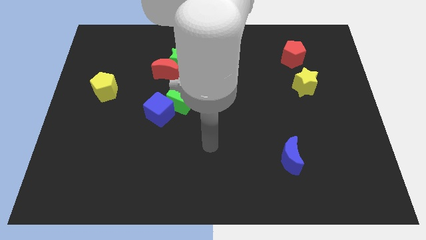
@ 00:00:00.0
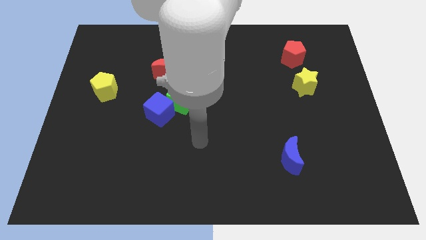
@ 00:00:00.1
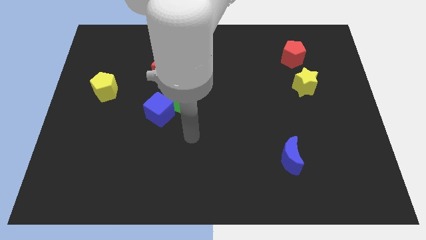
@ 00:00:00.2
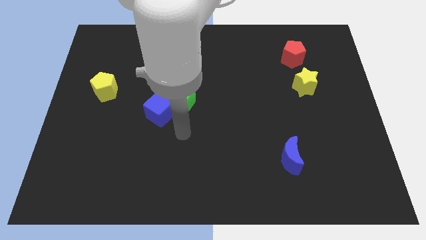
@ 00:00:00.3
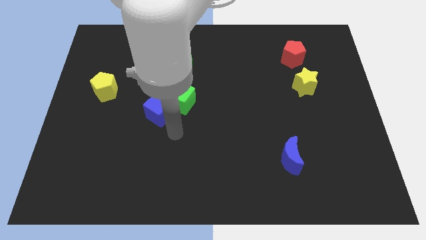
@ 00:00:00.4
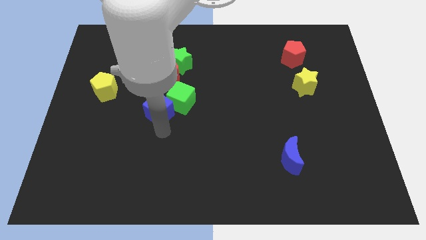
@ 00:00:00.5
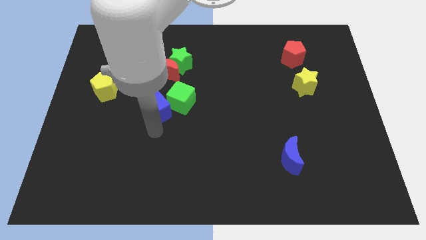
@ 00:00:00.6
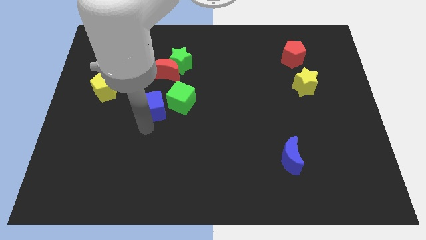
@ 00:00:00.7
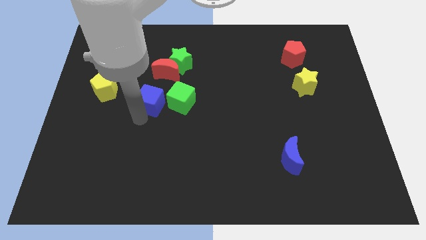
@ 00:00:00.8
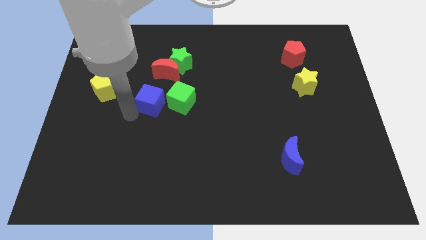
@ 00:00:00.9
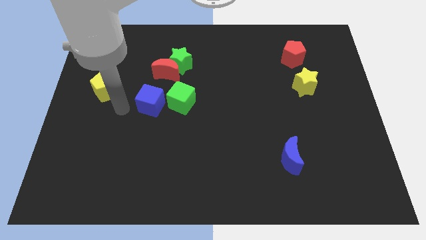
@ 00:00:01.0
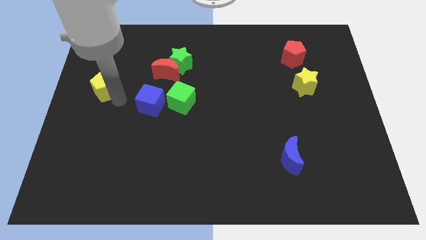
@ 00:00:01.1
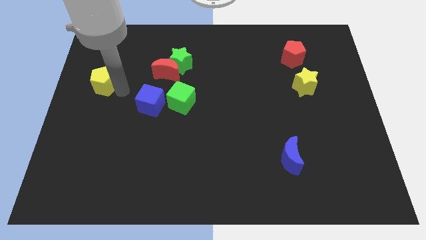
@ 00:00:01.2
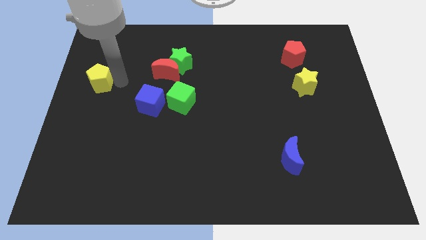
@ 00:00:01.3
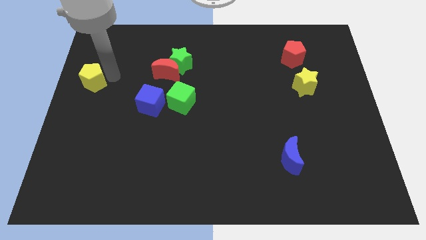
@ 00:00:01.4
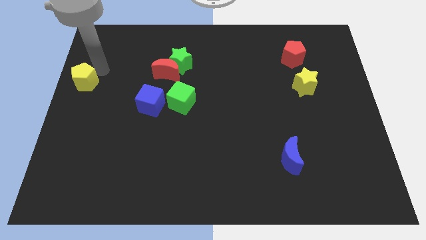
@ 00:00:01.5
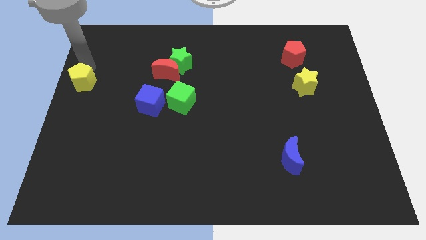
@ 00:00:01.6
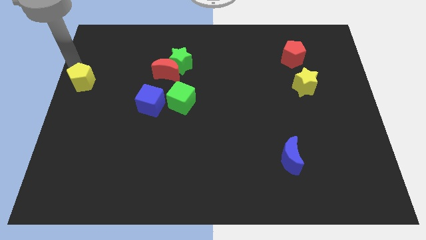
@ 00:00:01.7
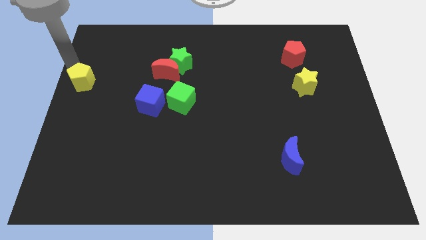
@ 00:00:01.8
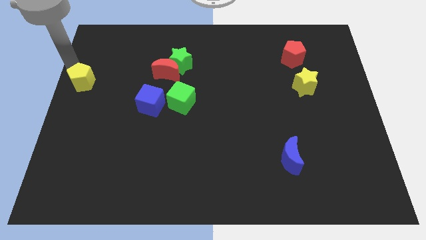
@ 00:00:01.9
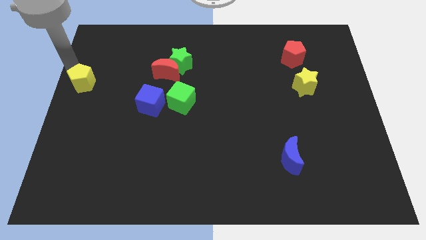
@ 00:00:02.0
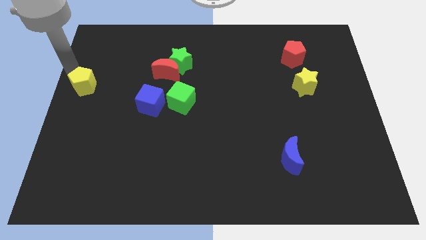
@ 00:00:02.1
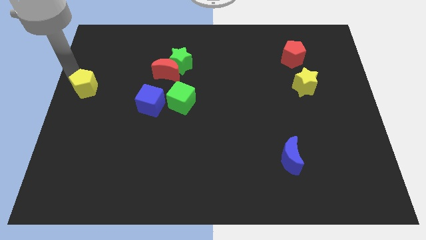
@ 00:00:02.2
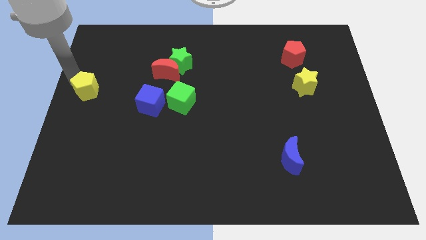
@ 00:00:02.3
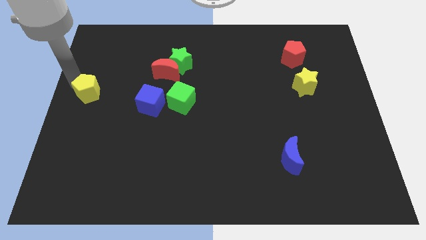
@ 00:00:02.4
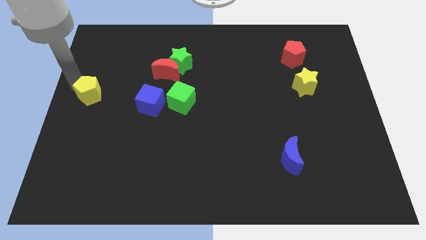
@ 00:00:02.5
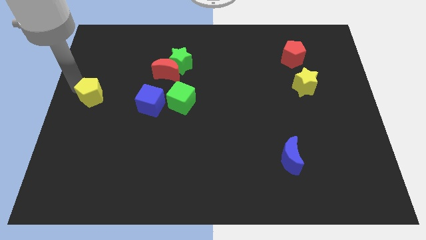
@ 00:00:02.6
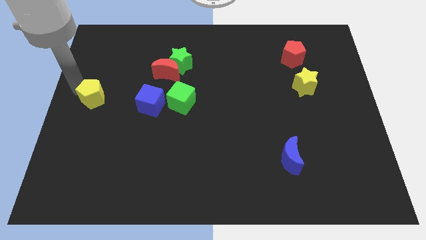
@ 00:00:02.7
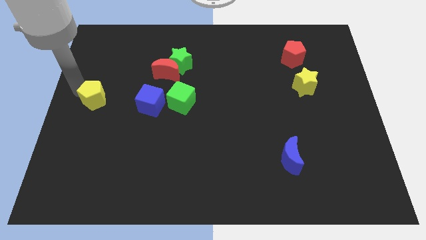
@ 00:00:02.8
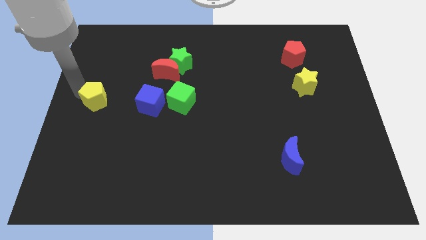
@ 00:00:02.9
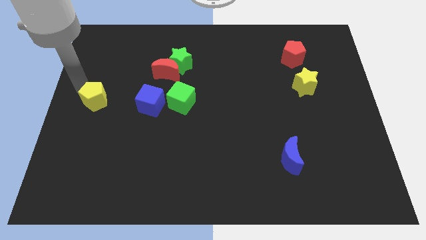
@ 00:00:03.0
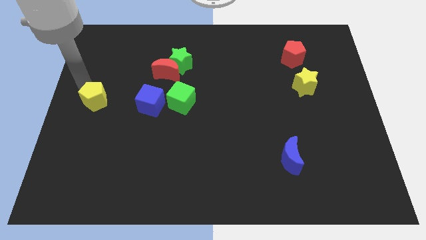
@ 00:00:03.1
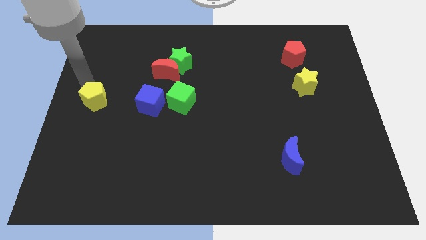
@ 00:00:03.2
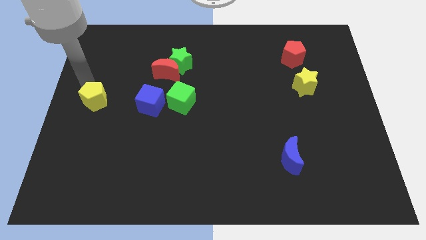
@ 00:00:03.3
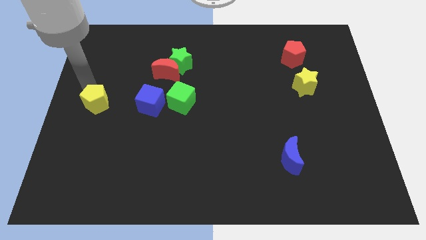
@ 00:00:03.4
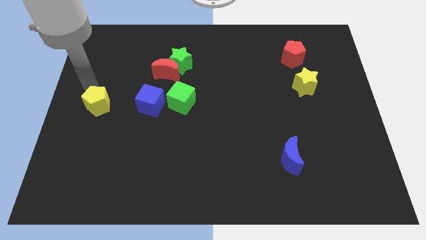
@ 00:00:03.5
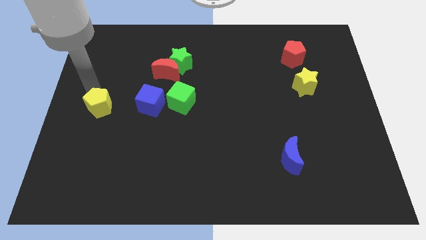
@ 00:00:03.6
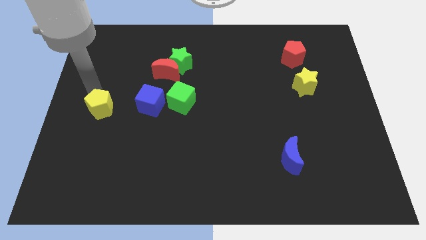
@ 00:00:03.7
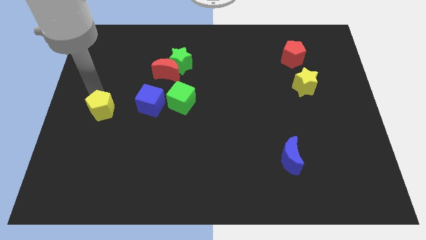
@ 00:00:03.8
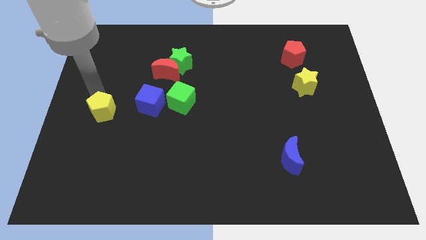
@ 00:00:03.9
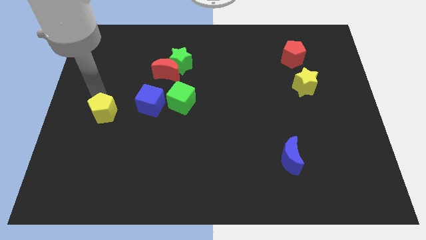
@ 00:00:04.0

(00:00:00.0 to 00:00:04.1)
slide the yellow pentagon somewhat down

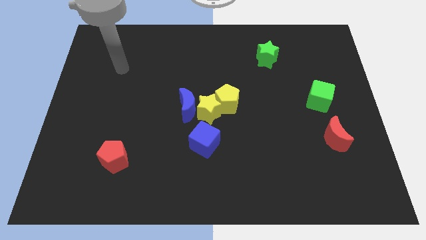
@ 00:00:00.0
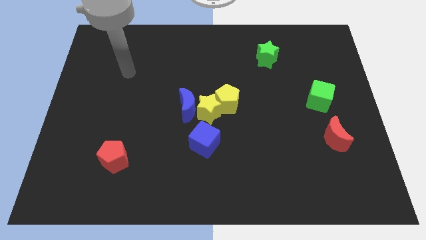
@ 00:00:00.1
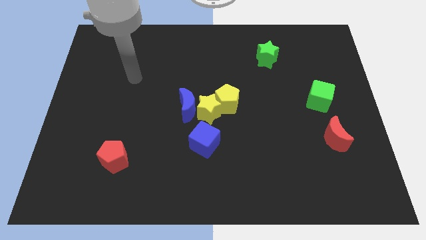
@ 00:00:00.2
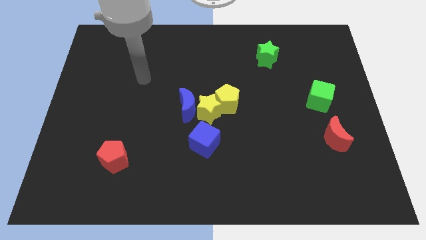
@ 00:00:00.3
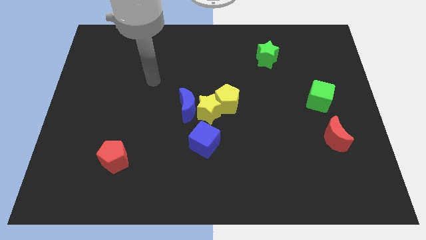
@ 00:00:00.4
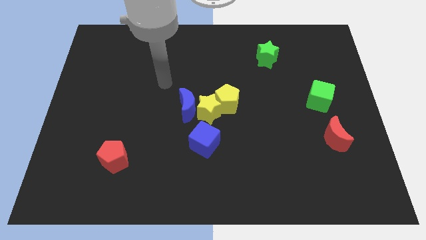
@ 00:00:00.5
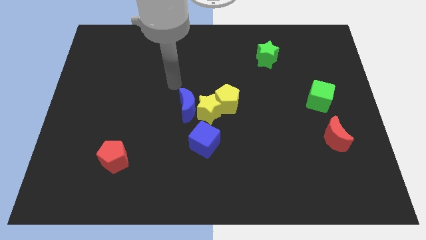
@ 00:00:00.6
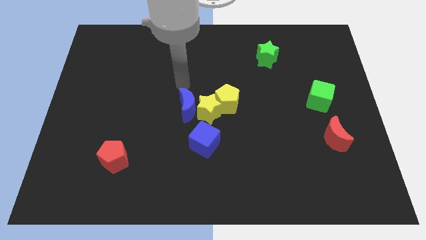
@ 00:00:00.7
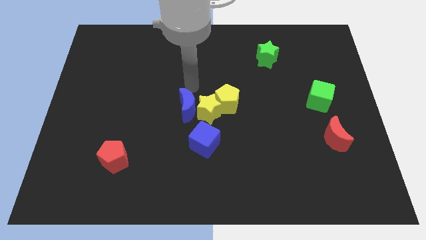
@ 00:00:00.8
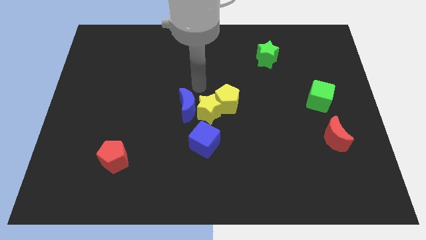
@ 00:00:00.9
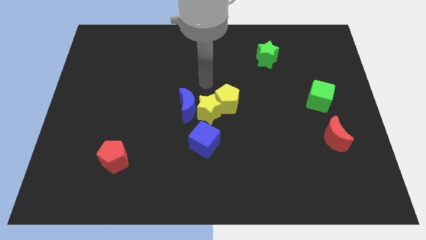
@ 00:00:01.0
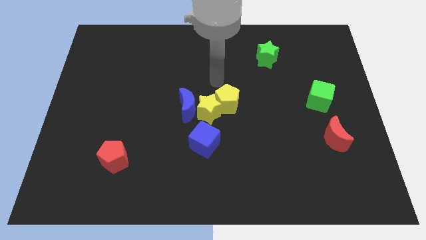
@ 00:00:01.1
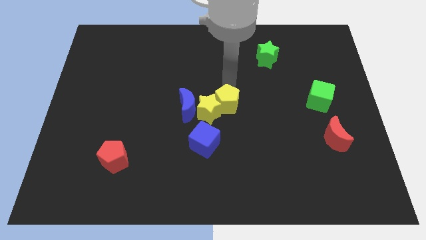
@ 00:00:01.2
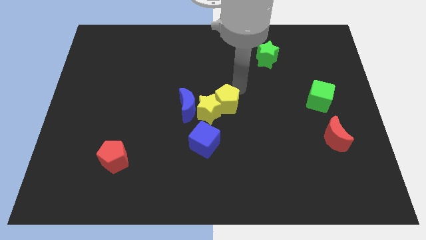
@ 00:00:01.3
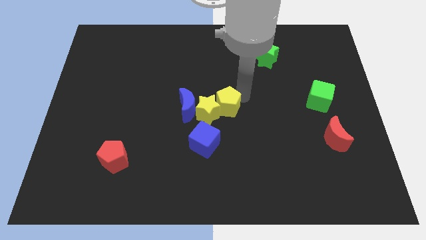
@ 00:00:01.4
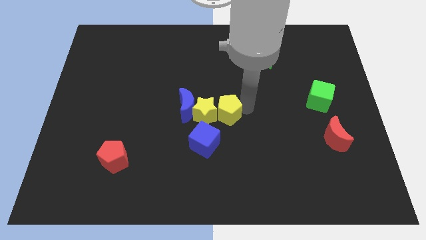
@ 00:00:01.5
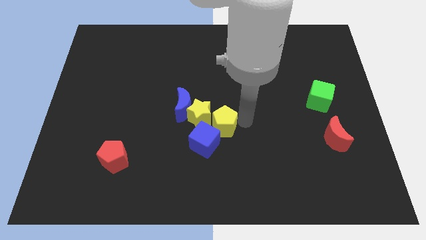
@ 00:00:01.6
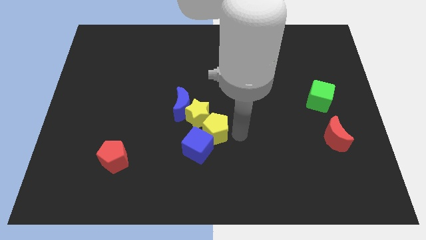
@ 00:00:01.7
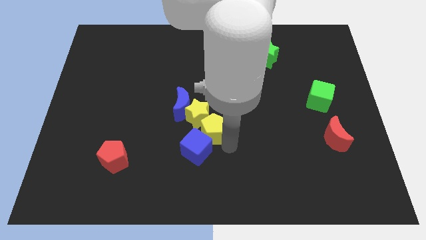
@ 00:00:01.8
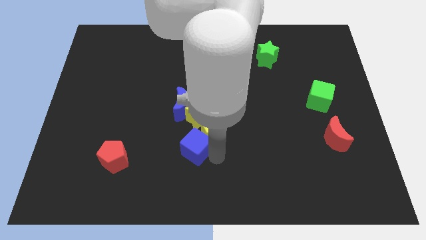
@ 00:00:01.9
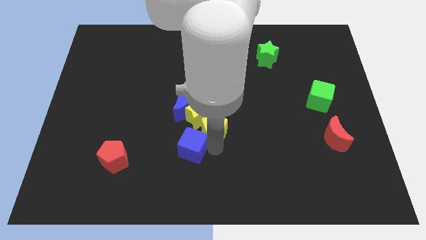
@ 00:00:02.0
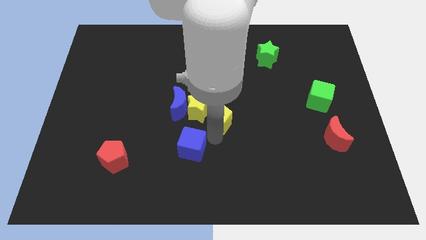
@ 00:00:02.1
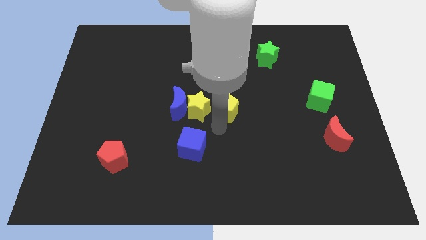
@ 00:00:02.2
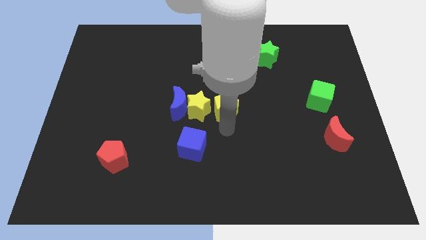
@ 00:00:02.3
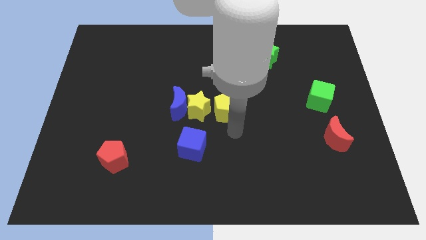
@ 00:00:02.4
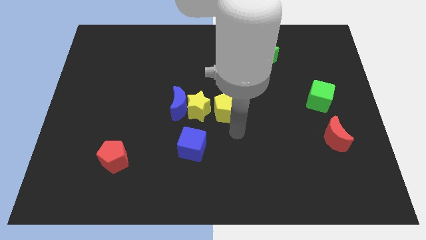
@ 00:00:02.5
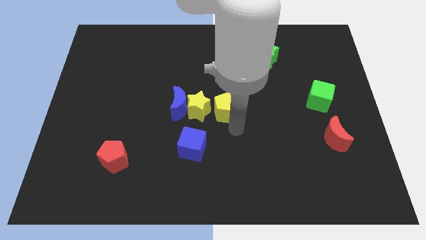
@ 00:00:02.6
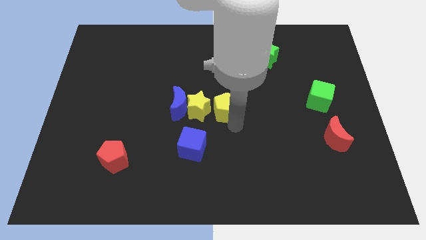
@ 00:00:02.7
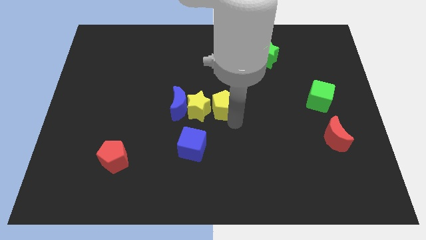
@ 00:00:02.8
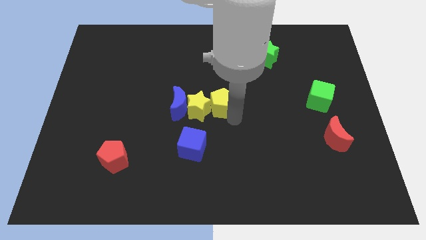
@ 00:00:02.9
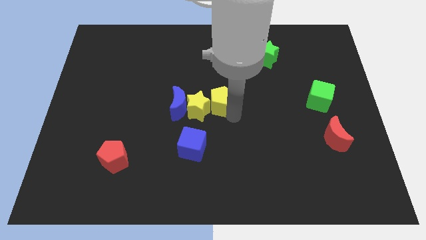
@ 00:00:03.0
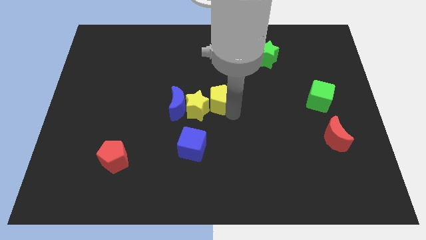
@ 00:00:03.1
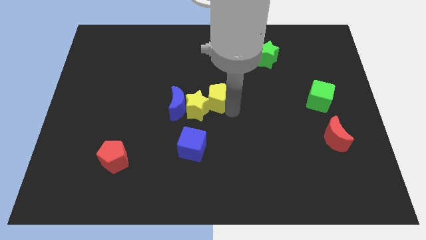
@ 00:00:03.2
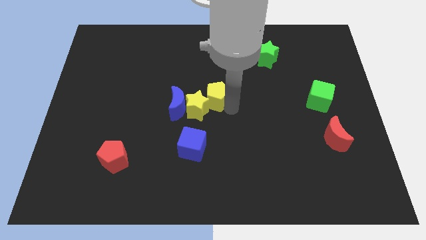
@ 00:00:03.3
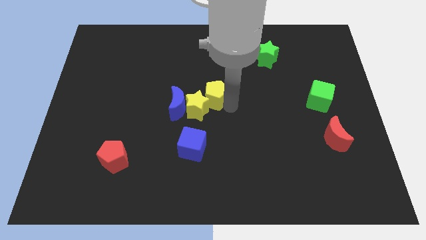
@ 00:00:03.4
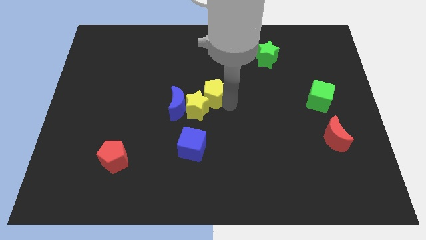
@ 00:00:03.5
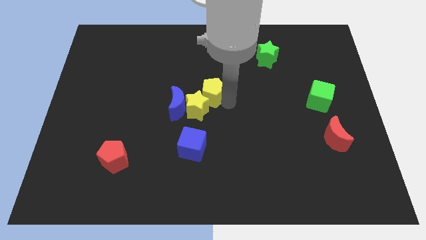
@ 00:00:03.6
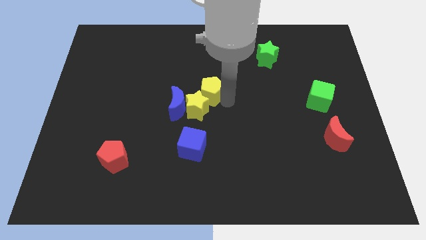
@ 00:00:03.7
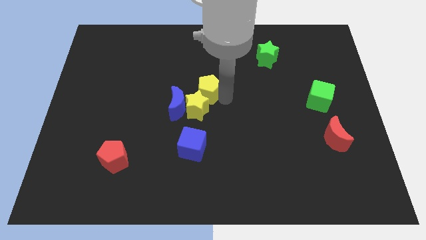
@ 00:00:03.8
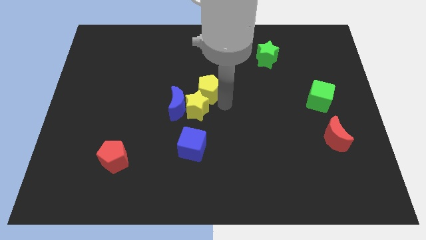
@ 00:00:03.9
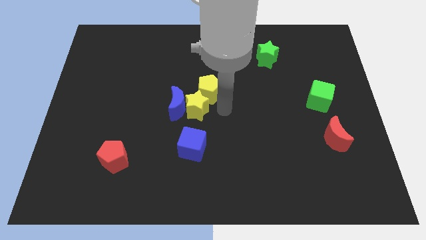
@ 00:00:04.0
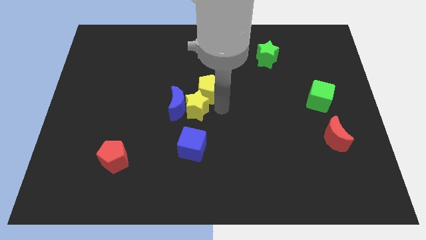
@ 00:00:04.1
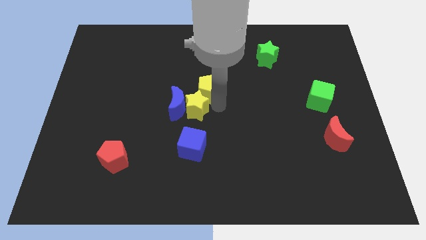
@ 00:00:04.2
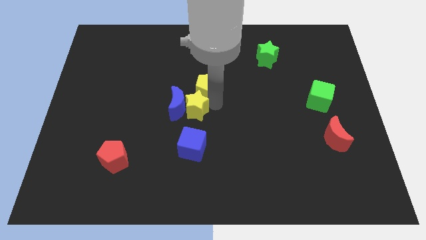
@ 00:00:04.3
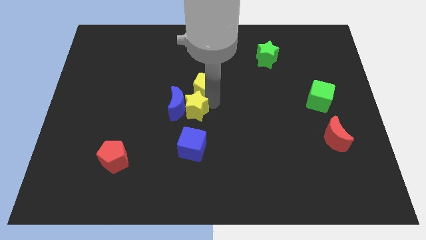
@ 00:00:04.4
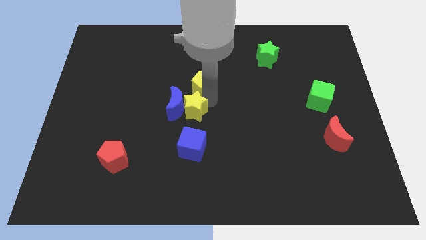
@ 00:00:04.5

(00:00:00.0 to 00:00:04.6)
slightly slide the yellow pentagon up and then to the left
